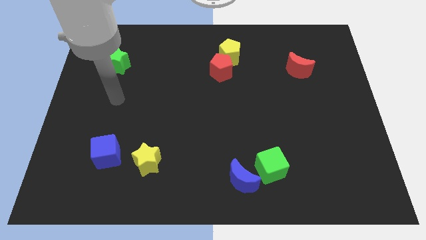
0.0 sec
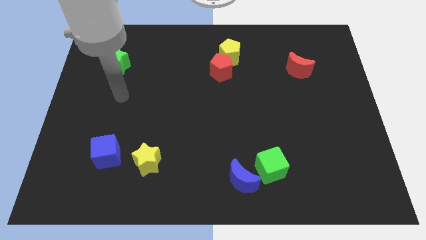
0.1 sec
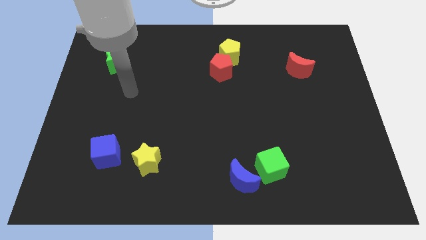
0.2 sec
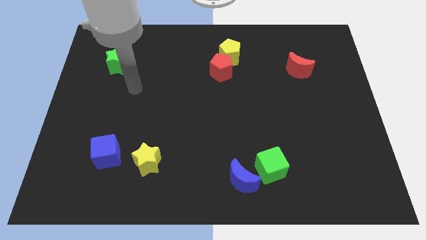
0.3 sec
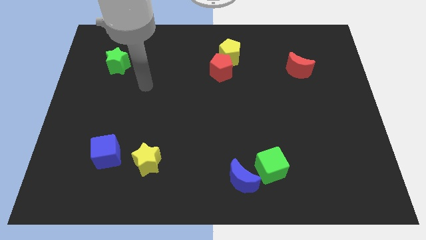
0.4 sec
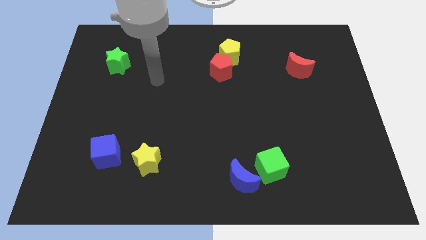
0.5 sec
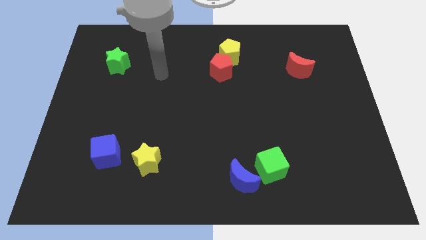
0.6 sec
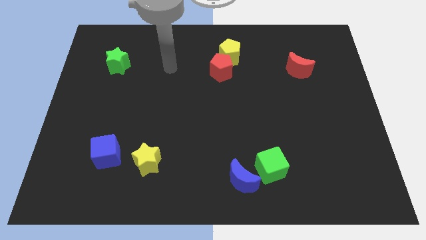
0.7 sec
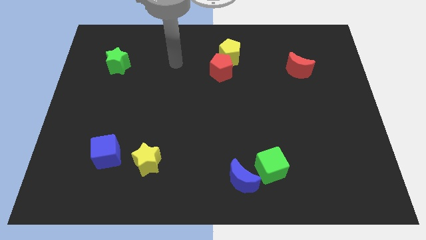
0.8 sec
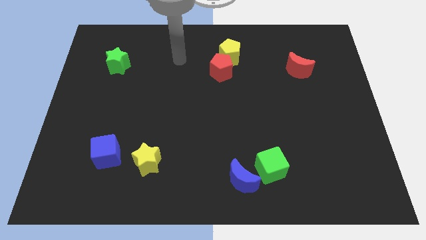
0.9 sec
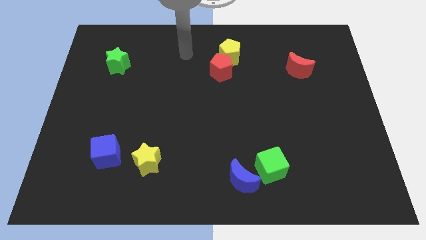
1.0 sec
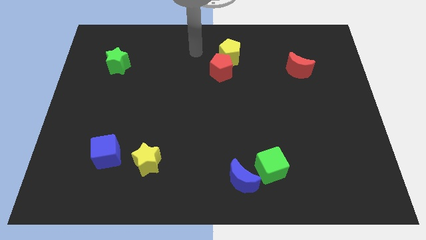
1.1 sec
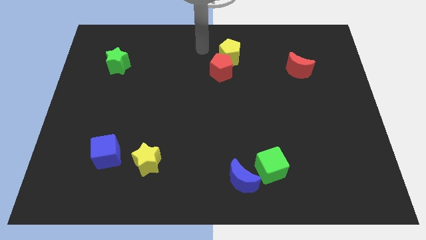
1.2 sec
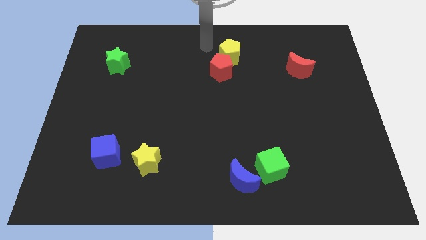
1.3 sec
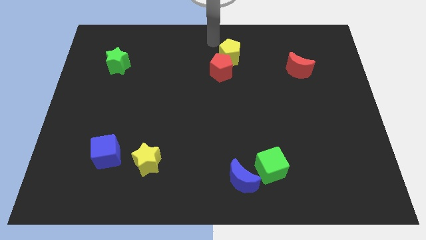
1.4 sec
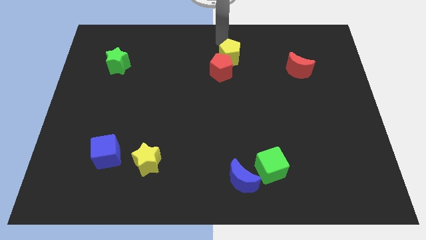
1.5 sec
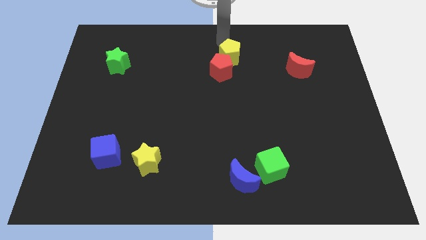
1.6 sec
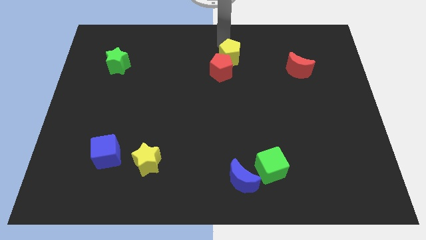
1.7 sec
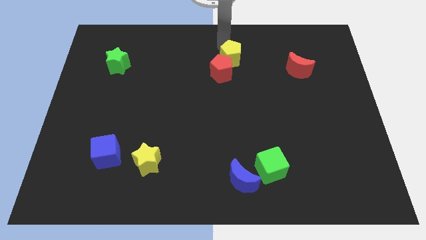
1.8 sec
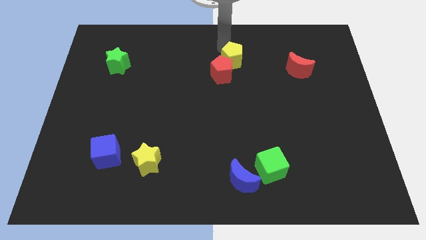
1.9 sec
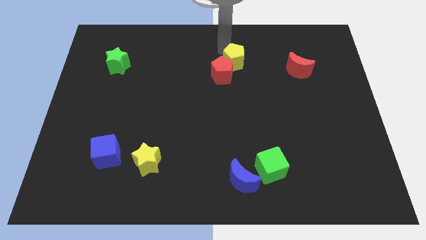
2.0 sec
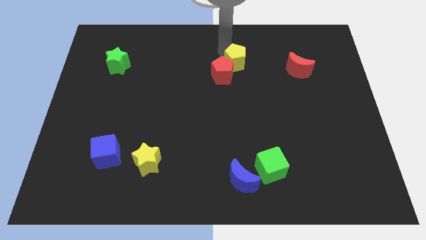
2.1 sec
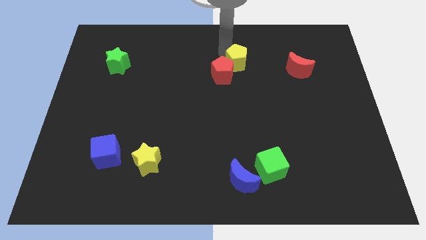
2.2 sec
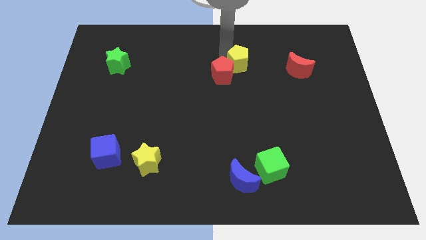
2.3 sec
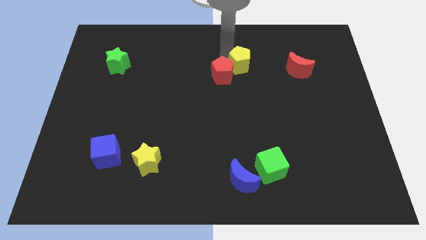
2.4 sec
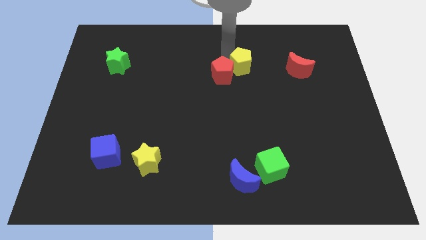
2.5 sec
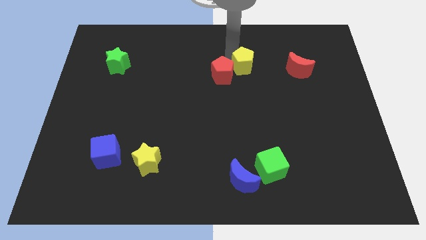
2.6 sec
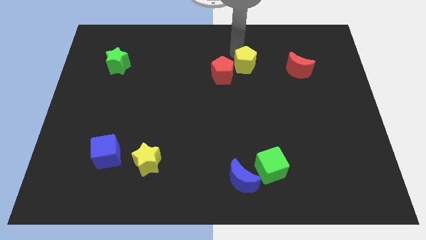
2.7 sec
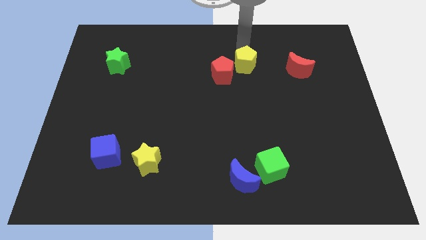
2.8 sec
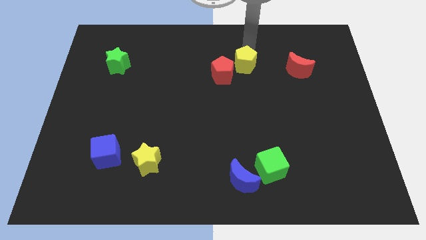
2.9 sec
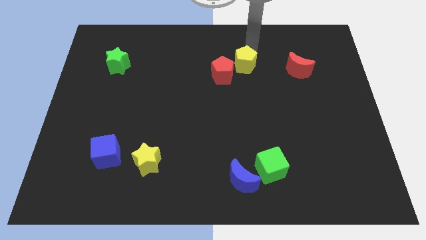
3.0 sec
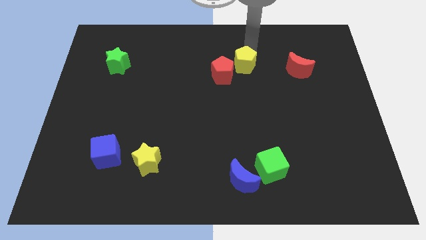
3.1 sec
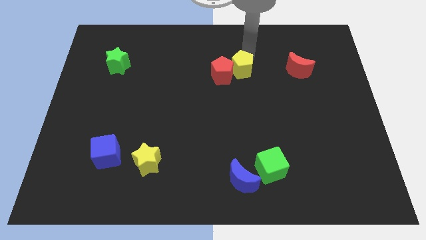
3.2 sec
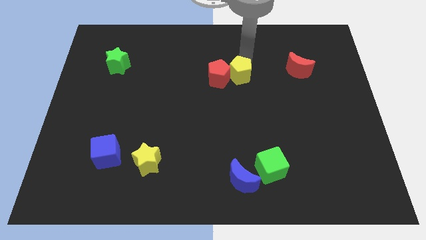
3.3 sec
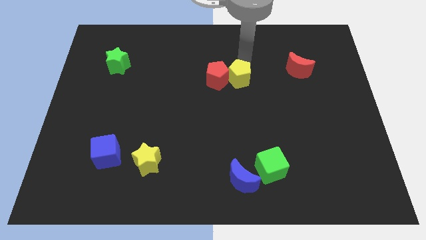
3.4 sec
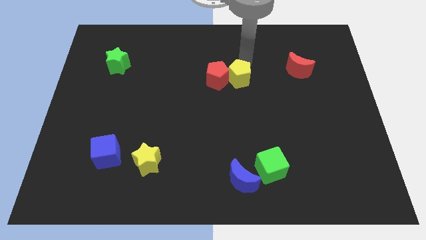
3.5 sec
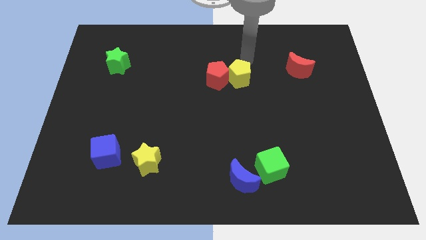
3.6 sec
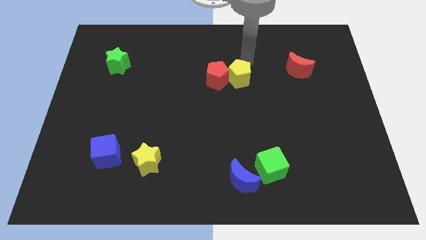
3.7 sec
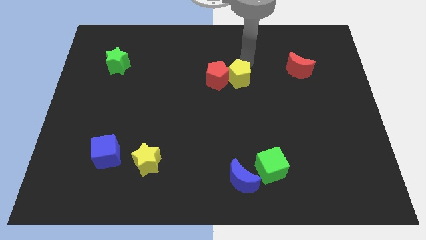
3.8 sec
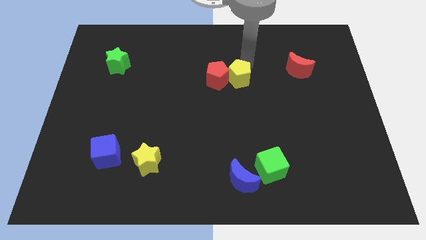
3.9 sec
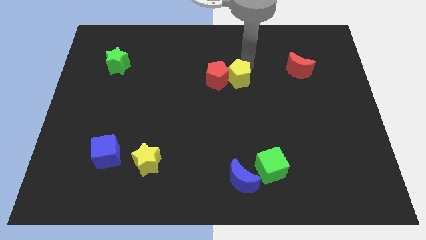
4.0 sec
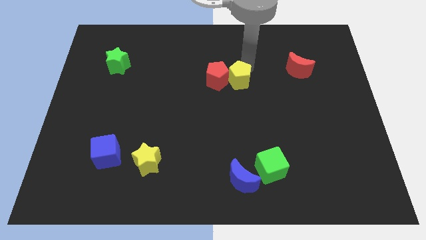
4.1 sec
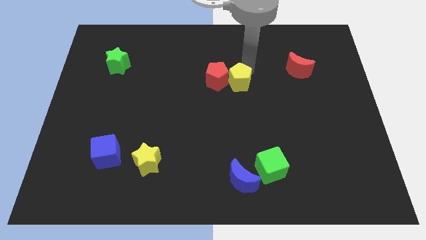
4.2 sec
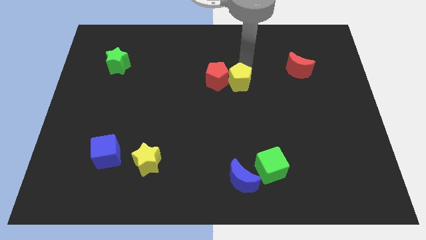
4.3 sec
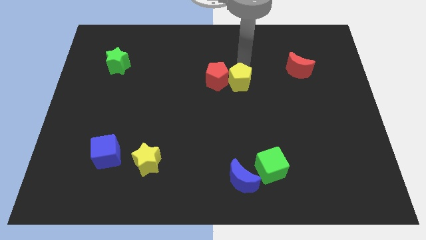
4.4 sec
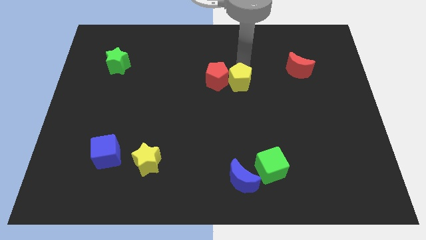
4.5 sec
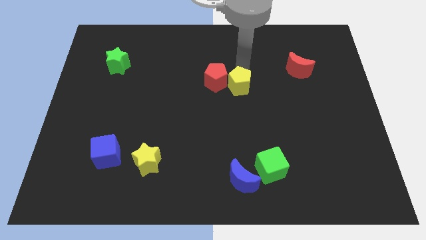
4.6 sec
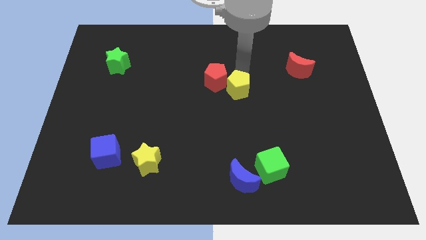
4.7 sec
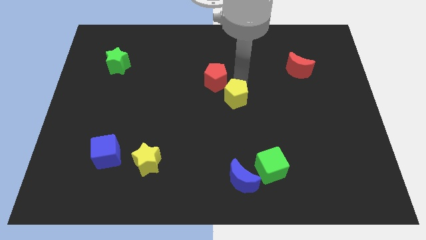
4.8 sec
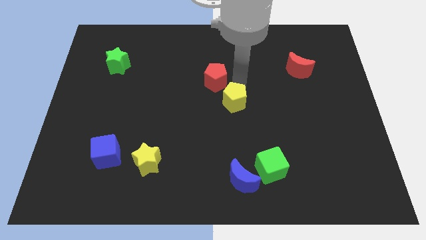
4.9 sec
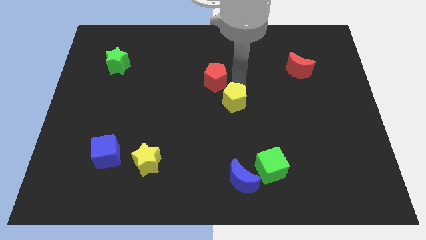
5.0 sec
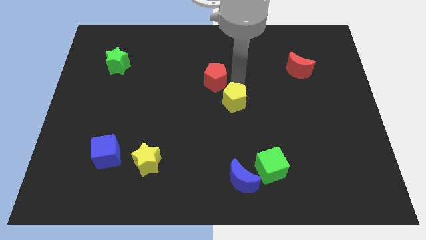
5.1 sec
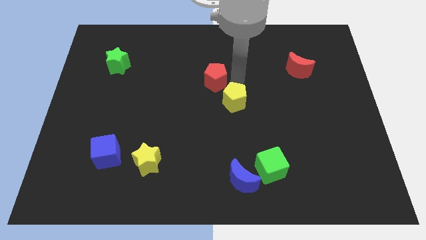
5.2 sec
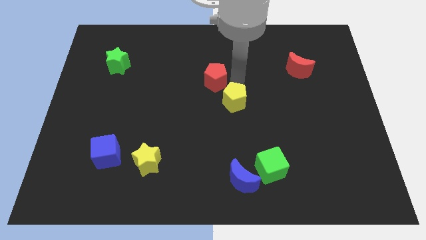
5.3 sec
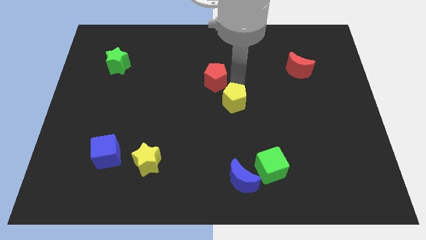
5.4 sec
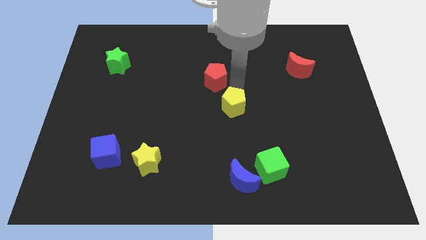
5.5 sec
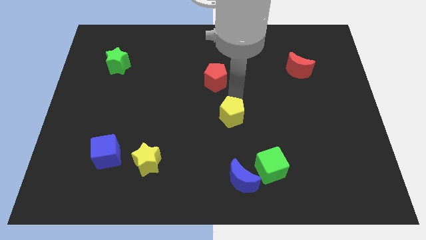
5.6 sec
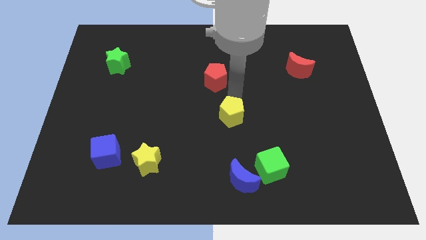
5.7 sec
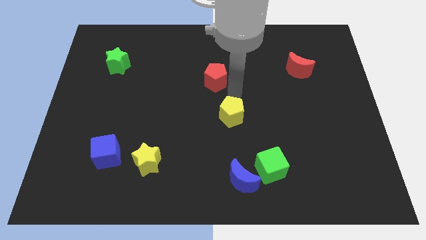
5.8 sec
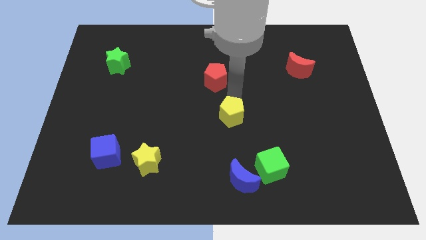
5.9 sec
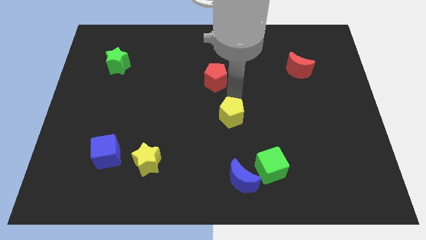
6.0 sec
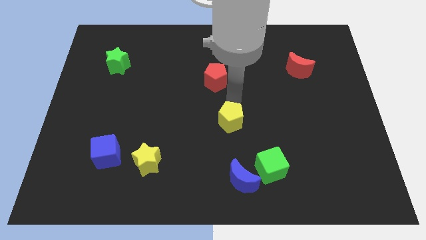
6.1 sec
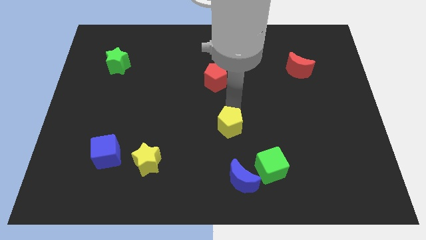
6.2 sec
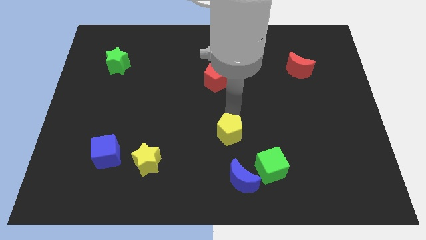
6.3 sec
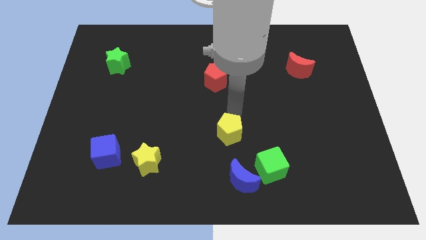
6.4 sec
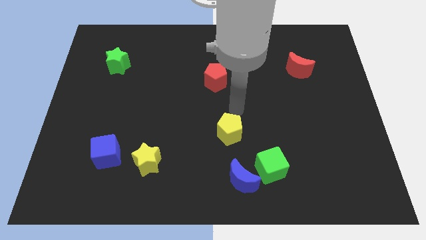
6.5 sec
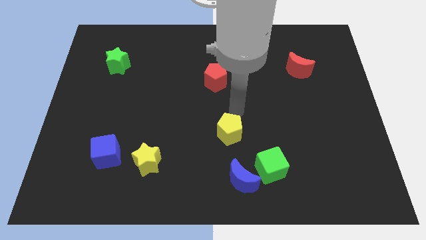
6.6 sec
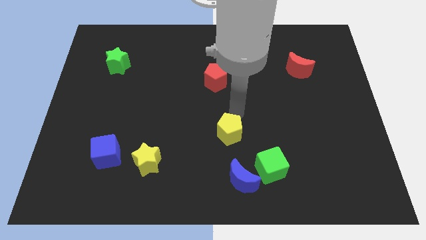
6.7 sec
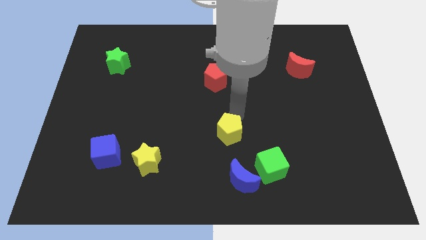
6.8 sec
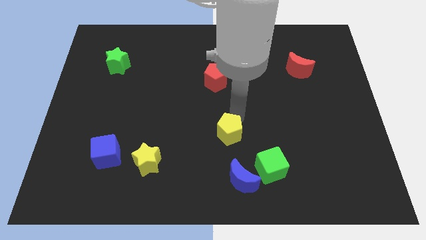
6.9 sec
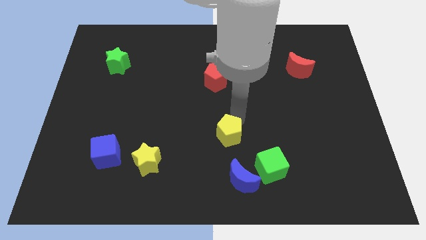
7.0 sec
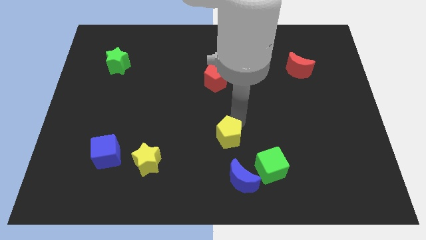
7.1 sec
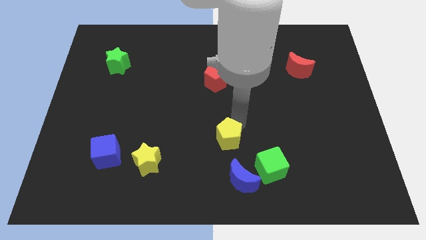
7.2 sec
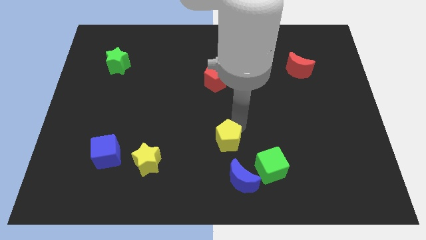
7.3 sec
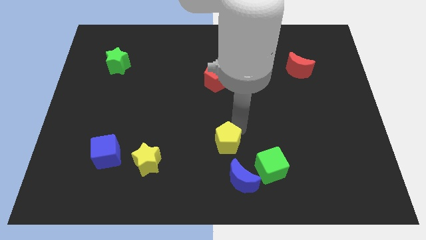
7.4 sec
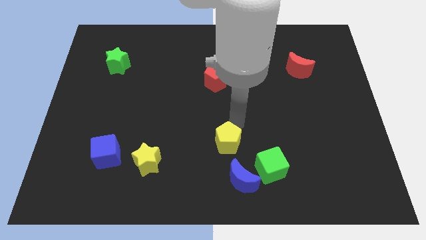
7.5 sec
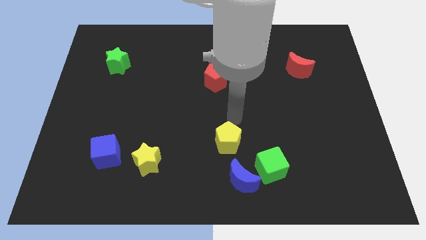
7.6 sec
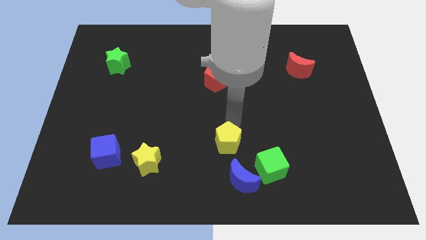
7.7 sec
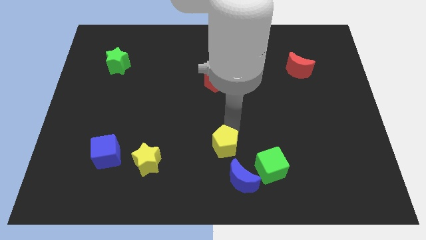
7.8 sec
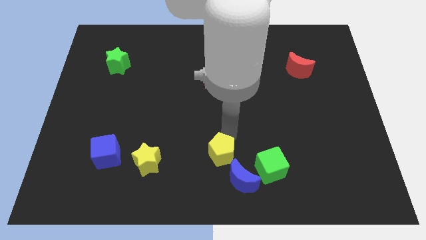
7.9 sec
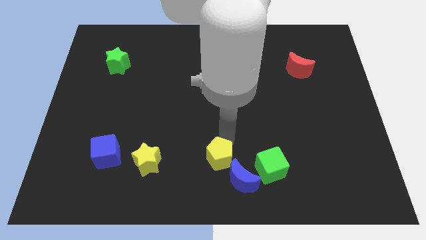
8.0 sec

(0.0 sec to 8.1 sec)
slide the yellow pentagon to the bottom
